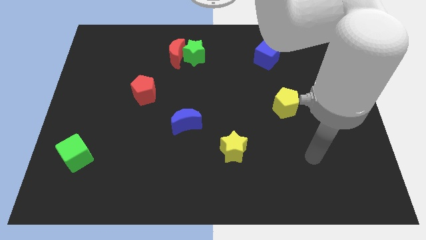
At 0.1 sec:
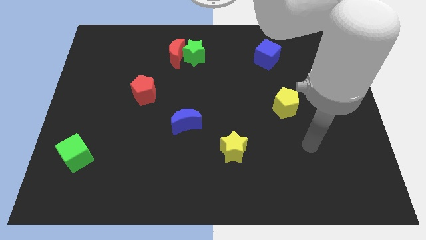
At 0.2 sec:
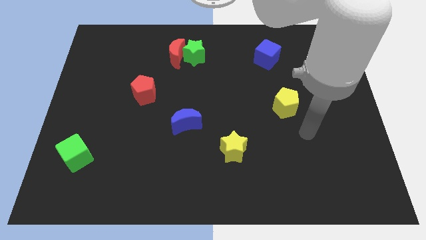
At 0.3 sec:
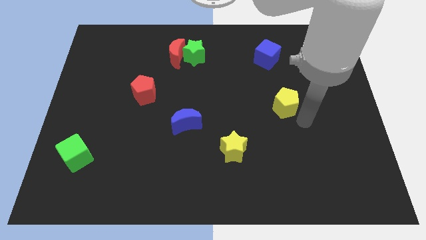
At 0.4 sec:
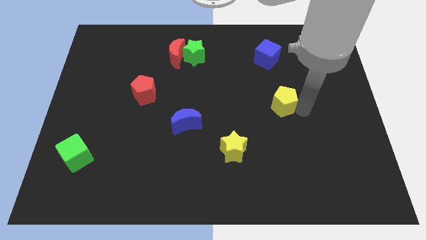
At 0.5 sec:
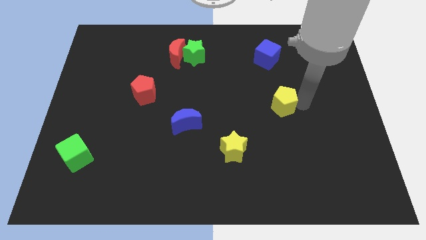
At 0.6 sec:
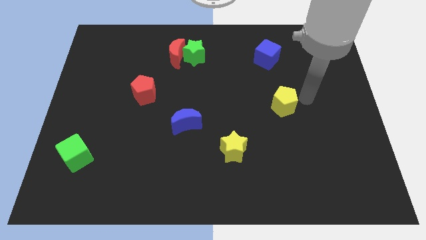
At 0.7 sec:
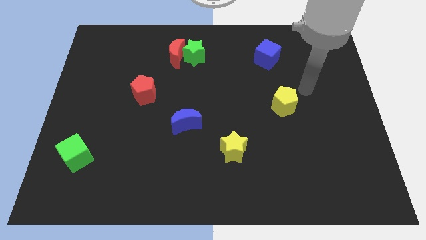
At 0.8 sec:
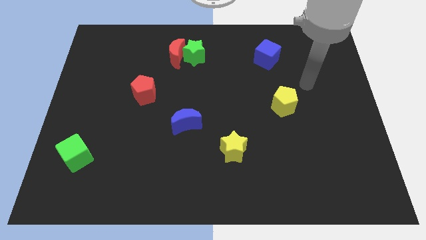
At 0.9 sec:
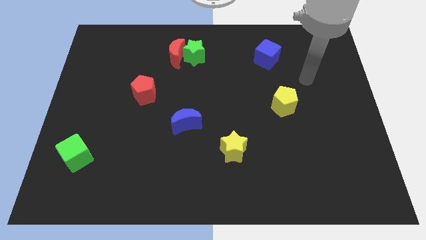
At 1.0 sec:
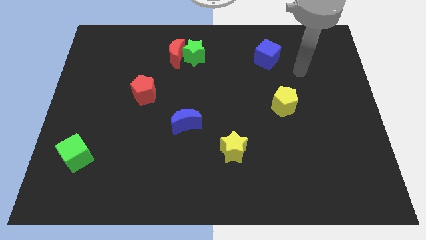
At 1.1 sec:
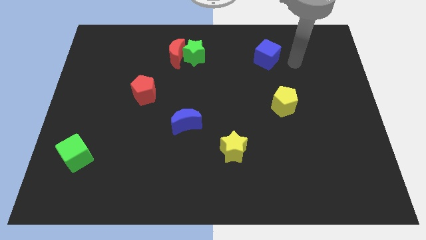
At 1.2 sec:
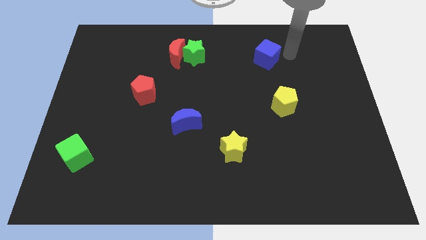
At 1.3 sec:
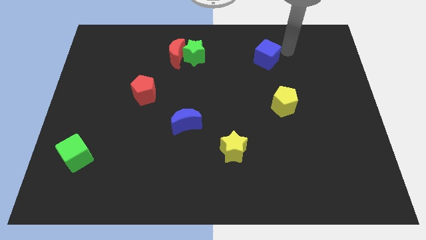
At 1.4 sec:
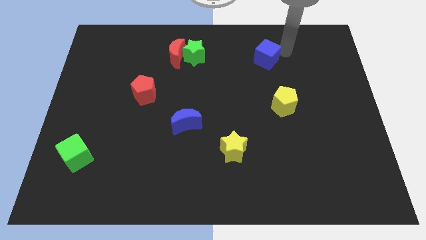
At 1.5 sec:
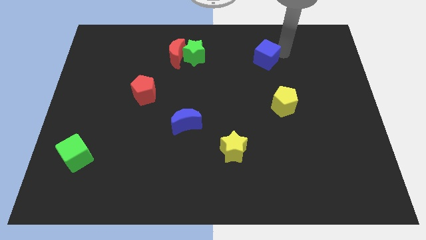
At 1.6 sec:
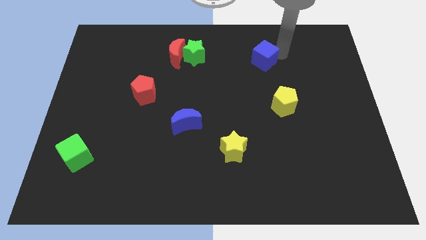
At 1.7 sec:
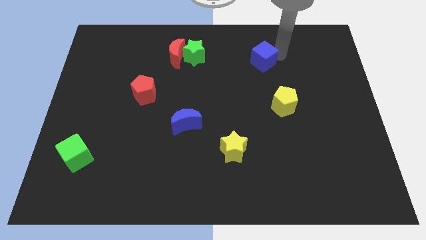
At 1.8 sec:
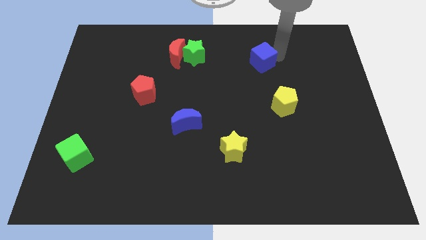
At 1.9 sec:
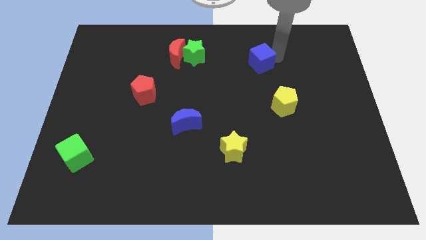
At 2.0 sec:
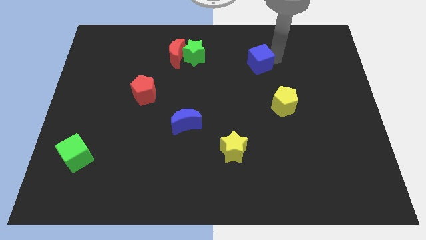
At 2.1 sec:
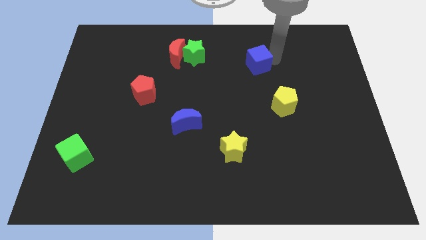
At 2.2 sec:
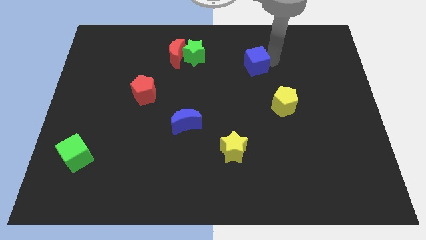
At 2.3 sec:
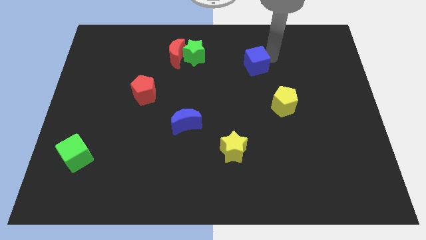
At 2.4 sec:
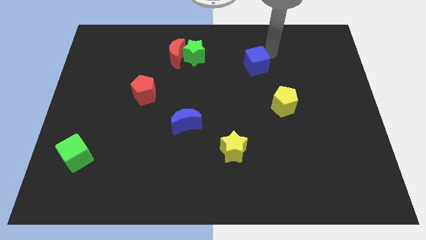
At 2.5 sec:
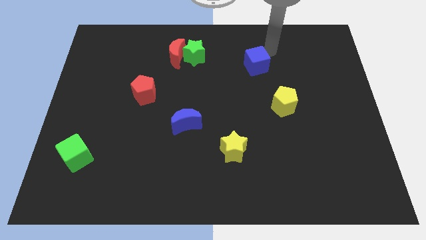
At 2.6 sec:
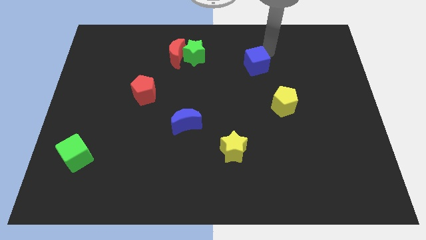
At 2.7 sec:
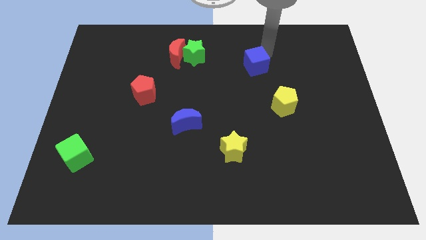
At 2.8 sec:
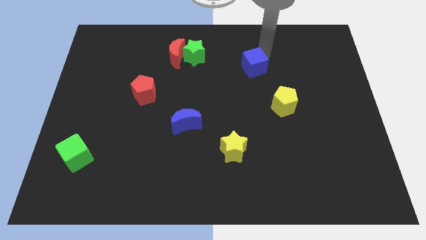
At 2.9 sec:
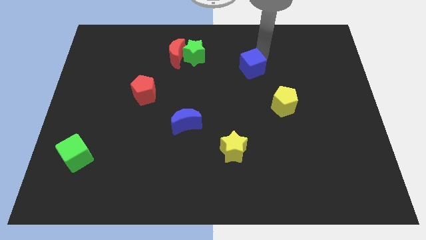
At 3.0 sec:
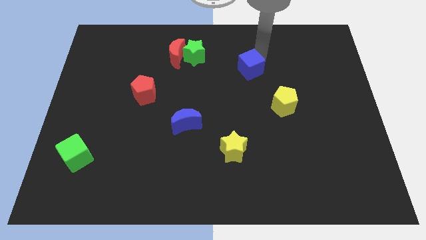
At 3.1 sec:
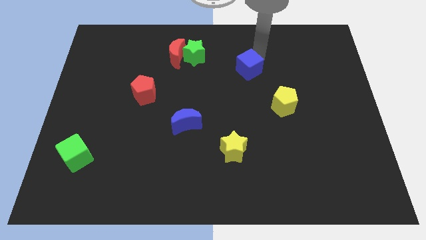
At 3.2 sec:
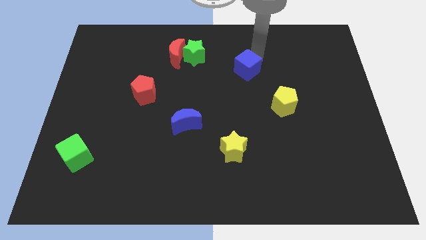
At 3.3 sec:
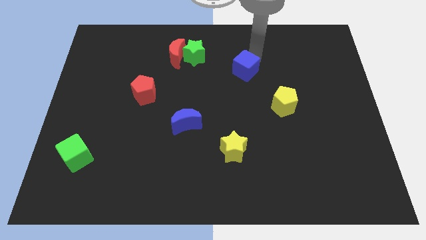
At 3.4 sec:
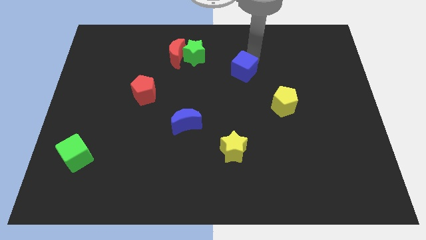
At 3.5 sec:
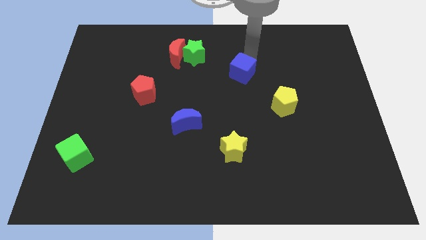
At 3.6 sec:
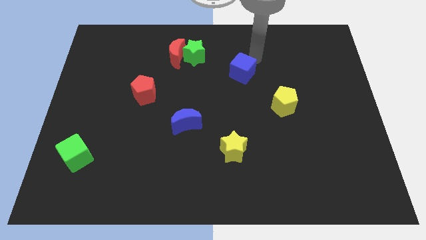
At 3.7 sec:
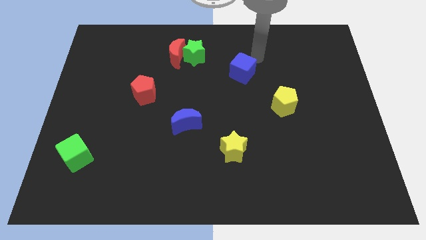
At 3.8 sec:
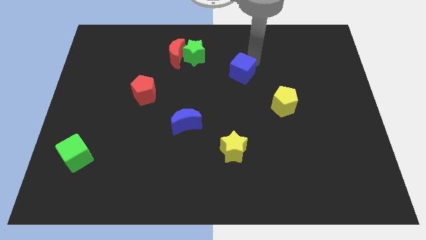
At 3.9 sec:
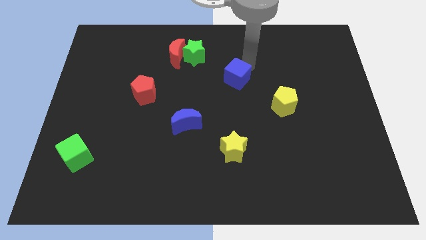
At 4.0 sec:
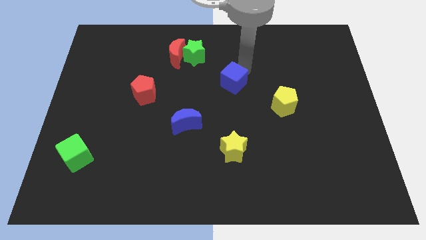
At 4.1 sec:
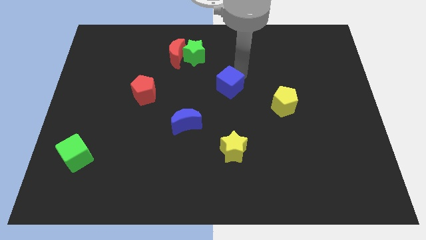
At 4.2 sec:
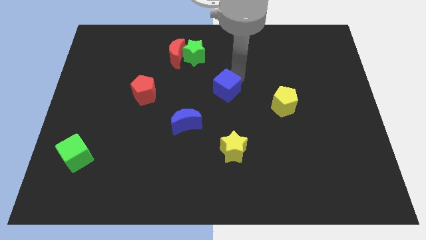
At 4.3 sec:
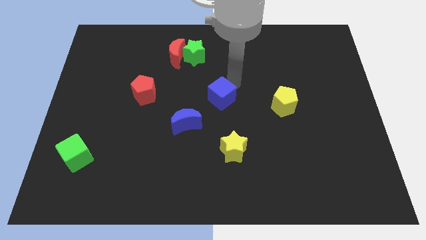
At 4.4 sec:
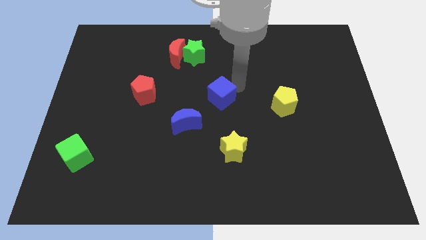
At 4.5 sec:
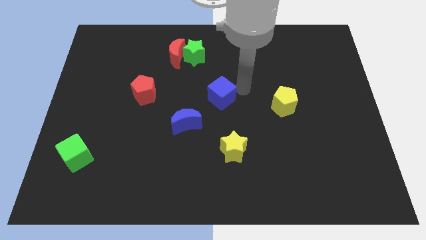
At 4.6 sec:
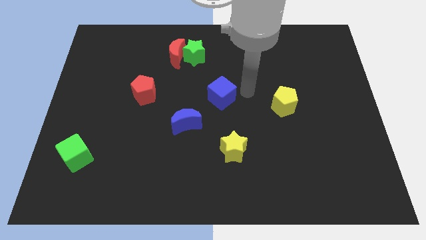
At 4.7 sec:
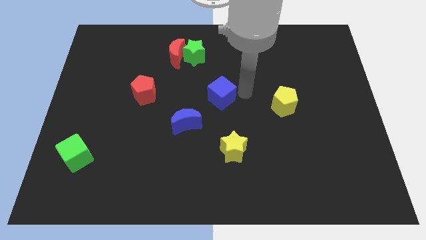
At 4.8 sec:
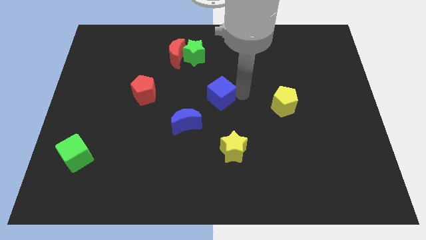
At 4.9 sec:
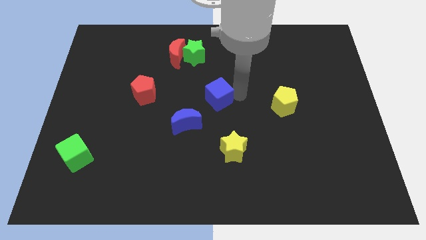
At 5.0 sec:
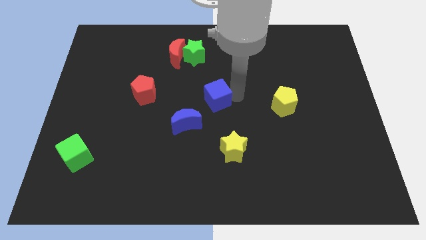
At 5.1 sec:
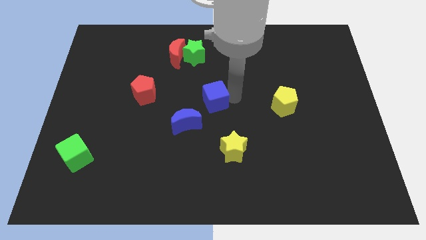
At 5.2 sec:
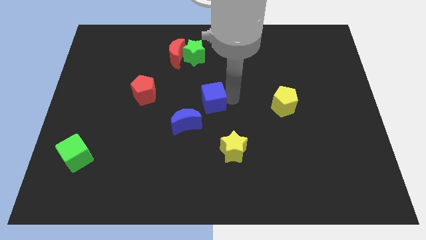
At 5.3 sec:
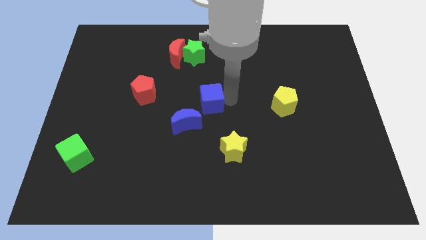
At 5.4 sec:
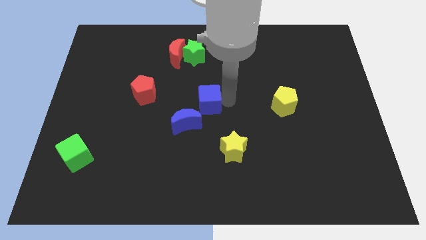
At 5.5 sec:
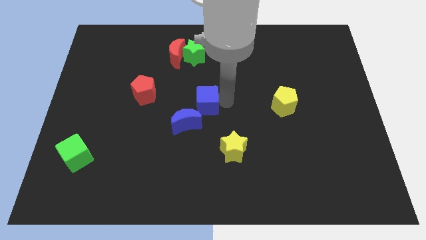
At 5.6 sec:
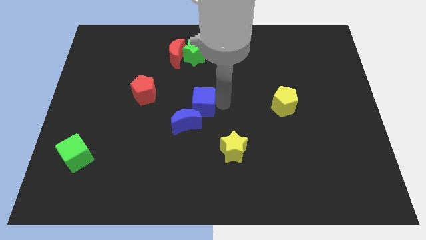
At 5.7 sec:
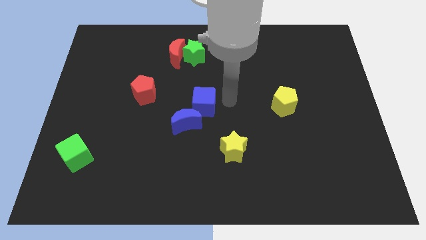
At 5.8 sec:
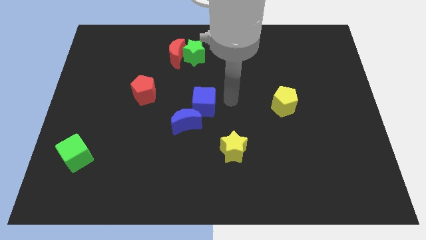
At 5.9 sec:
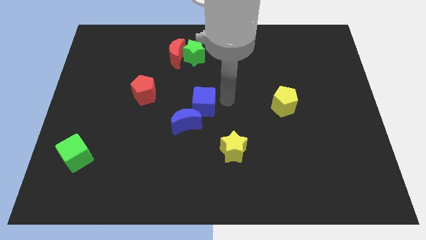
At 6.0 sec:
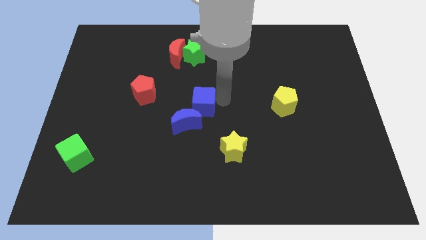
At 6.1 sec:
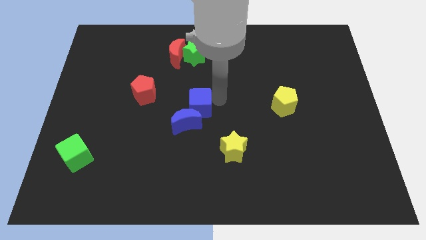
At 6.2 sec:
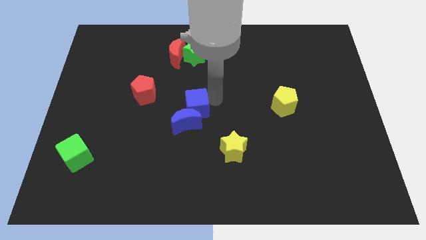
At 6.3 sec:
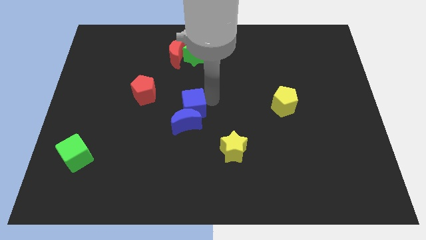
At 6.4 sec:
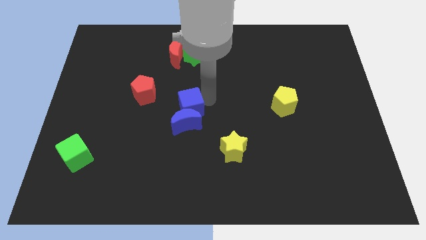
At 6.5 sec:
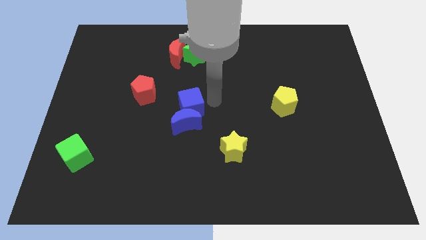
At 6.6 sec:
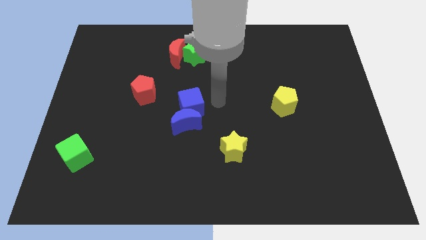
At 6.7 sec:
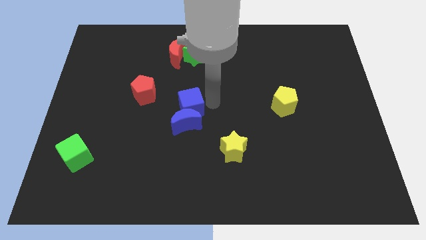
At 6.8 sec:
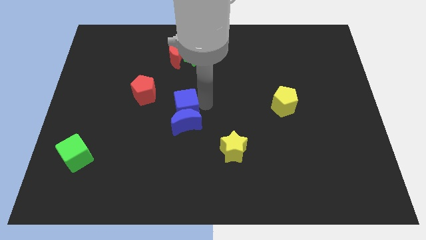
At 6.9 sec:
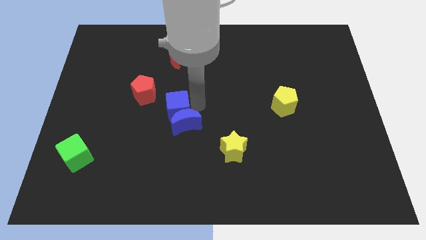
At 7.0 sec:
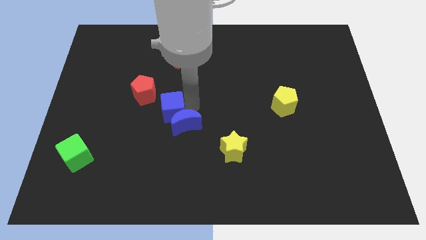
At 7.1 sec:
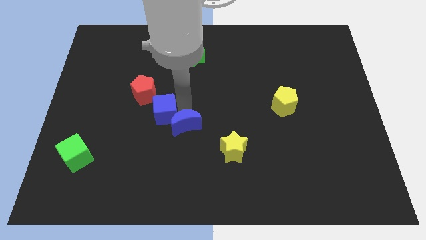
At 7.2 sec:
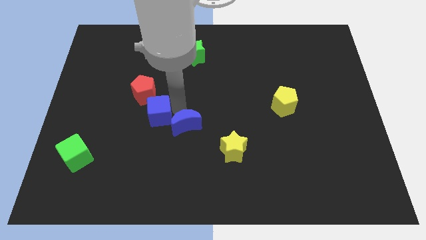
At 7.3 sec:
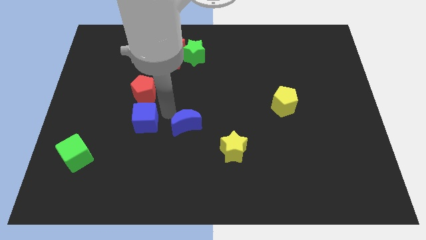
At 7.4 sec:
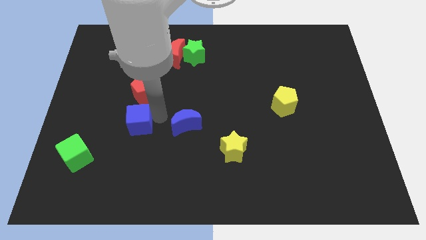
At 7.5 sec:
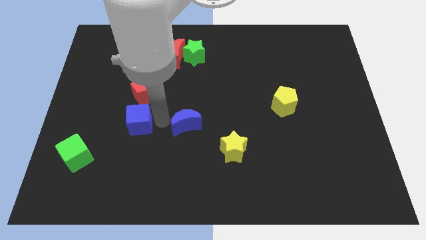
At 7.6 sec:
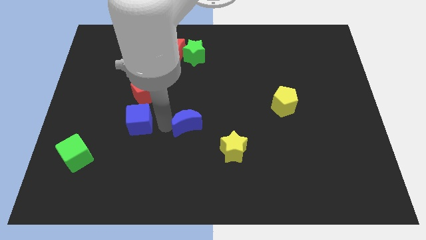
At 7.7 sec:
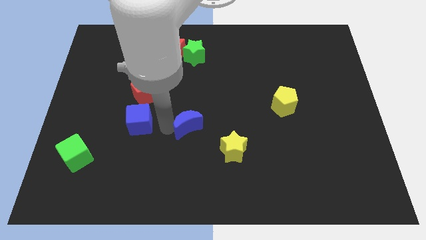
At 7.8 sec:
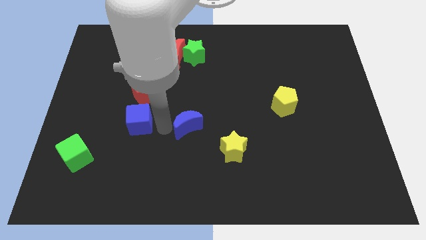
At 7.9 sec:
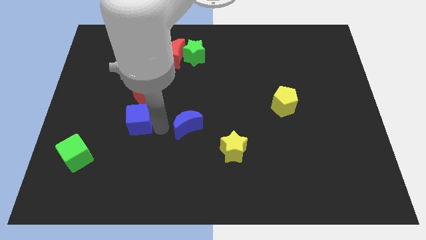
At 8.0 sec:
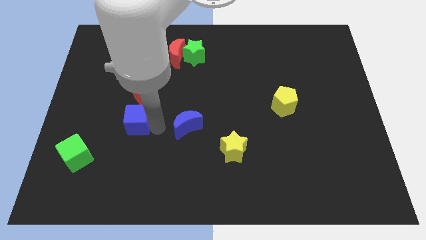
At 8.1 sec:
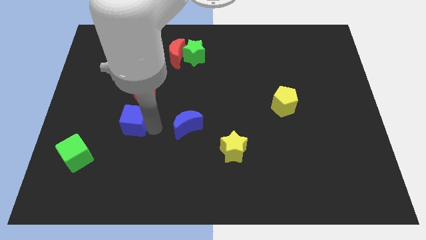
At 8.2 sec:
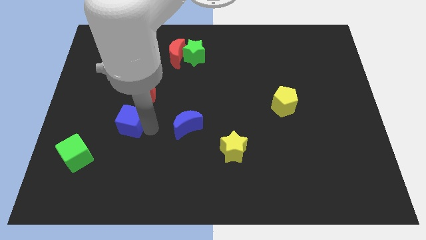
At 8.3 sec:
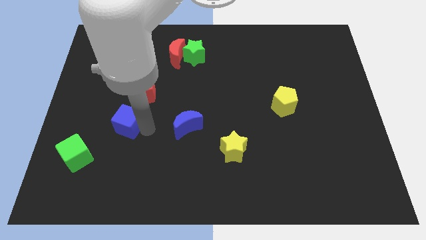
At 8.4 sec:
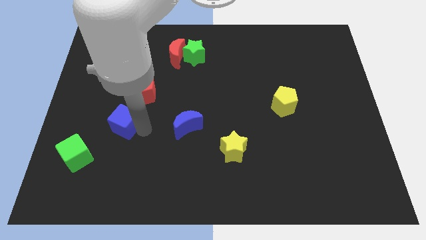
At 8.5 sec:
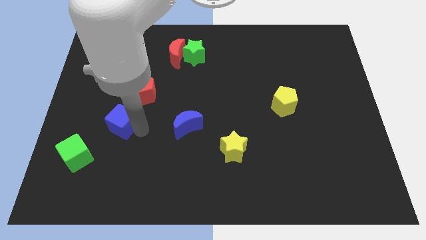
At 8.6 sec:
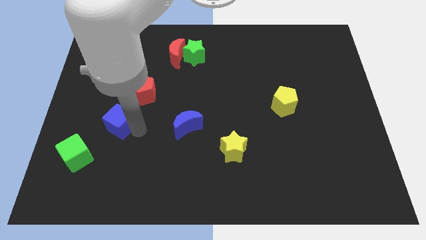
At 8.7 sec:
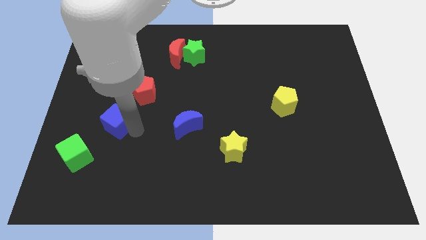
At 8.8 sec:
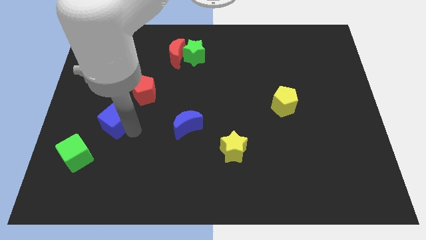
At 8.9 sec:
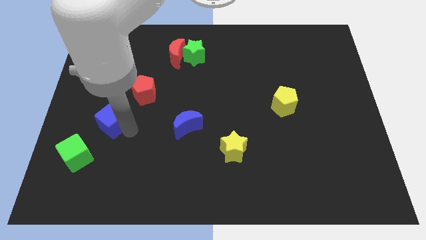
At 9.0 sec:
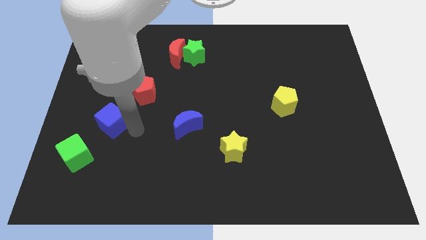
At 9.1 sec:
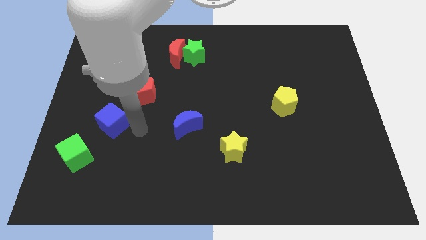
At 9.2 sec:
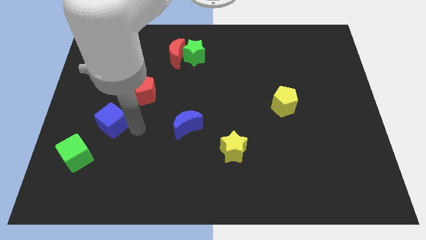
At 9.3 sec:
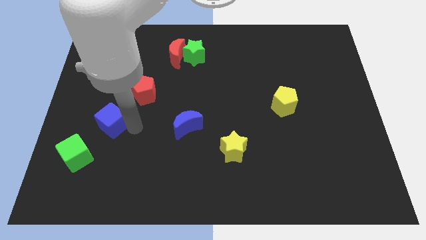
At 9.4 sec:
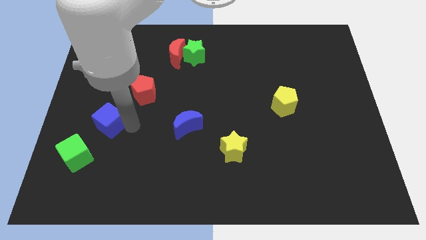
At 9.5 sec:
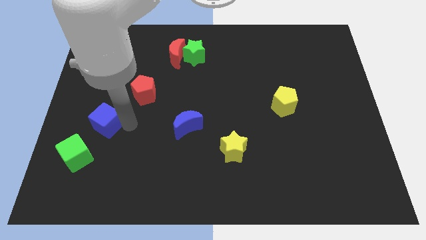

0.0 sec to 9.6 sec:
move the blue cube to the top of the green cube
